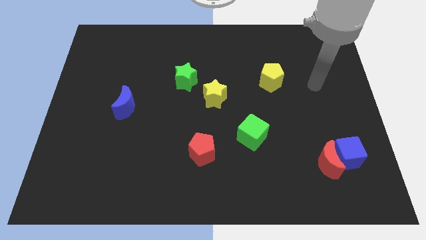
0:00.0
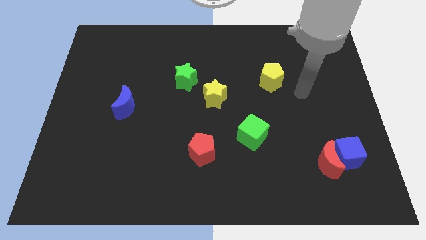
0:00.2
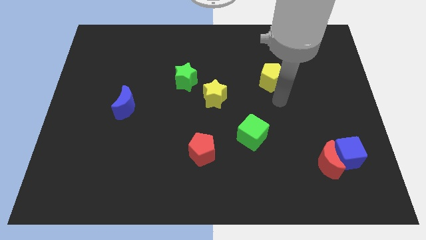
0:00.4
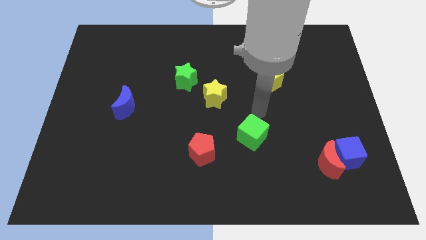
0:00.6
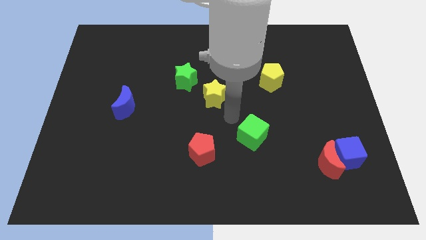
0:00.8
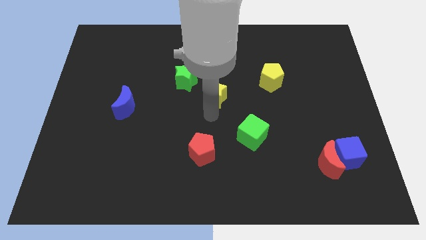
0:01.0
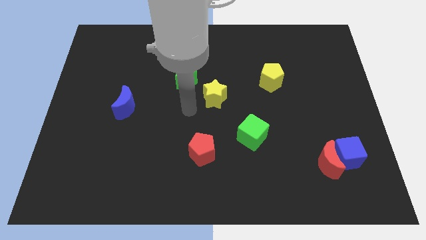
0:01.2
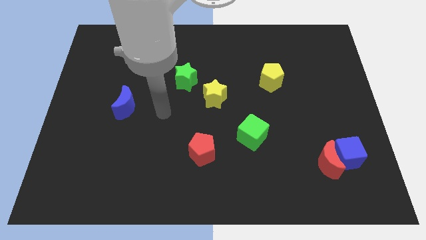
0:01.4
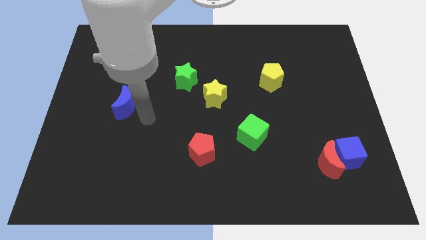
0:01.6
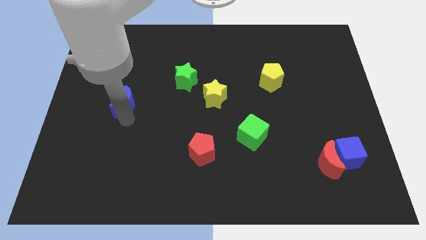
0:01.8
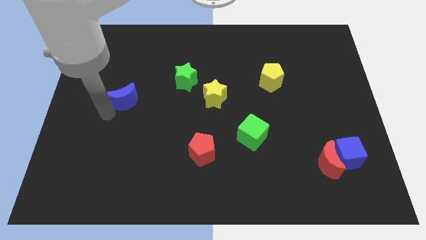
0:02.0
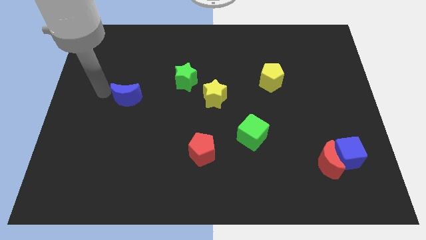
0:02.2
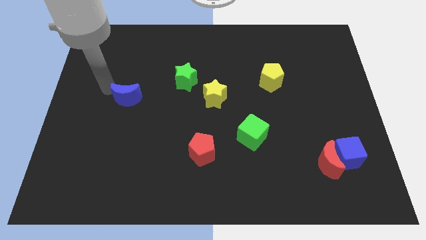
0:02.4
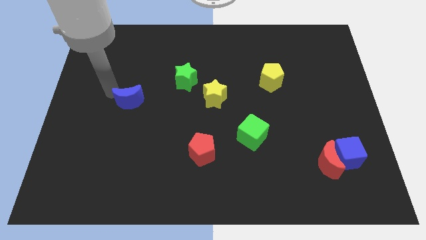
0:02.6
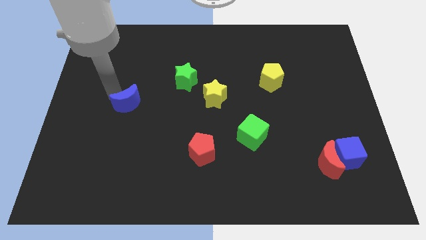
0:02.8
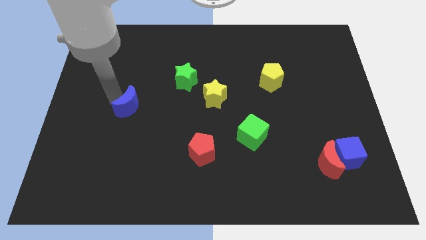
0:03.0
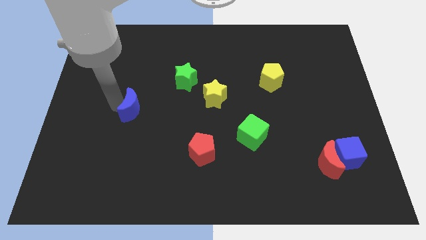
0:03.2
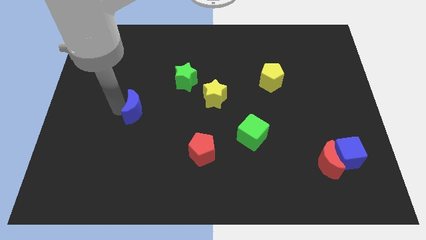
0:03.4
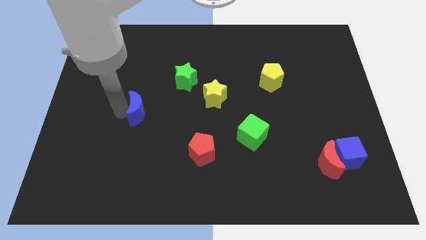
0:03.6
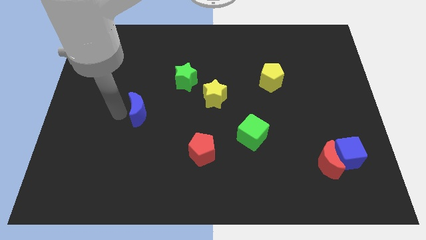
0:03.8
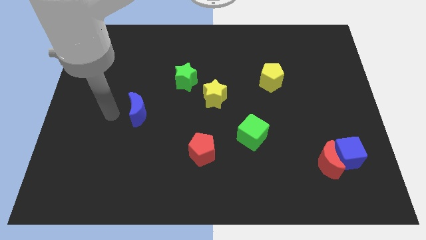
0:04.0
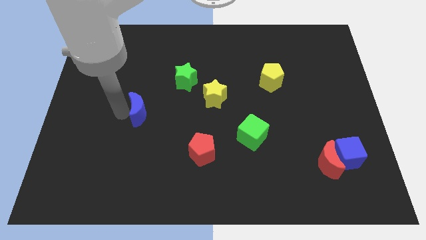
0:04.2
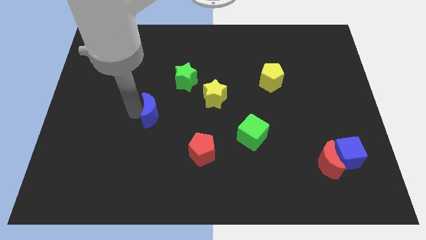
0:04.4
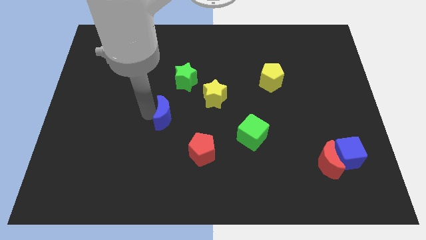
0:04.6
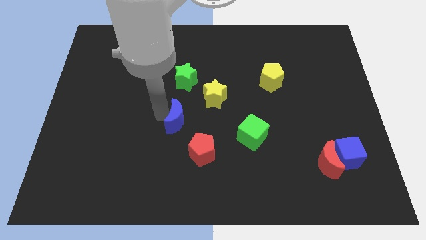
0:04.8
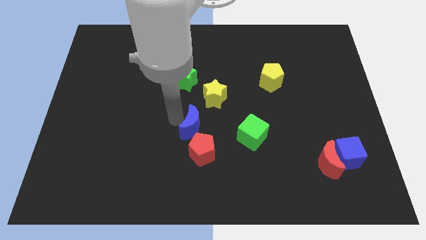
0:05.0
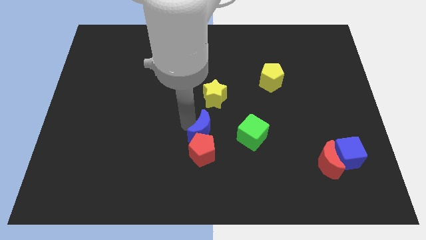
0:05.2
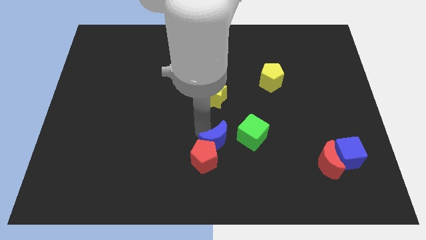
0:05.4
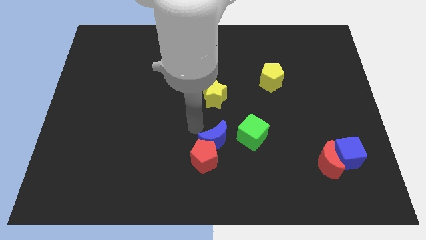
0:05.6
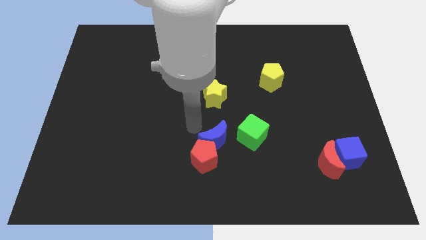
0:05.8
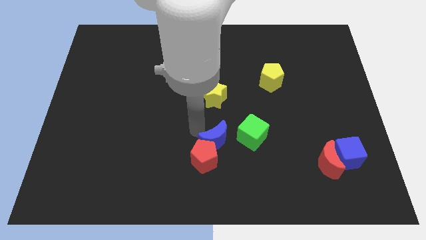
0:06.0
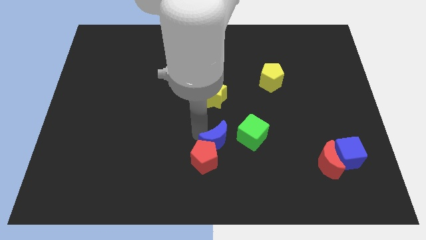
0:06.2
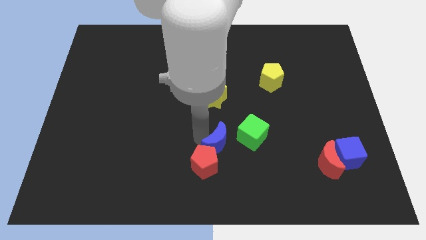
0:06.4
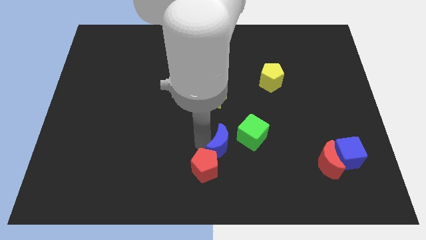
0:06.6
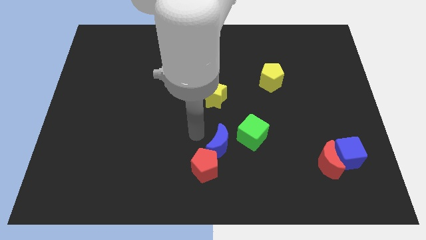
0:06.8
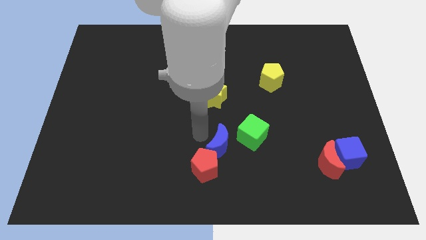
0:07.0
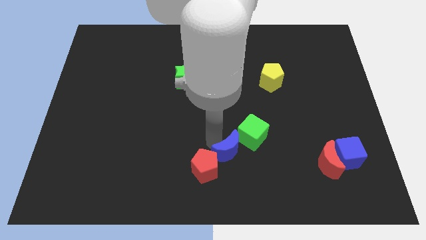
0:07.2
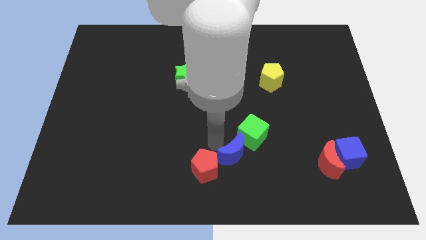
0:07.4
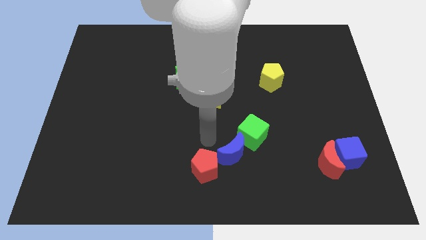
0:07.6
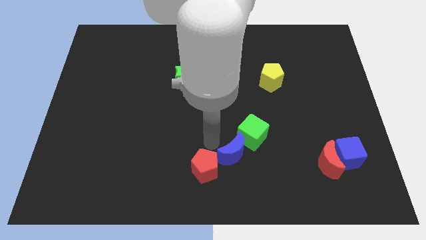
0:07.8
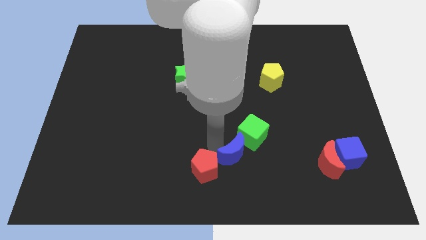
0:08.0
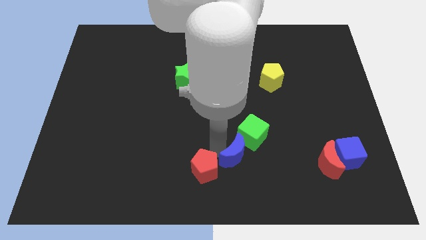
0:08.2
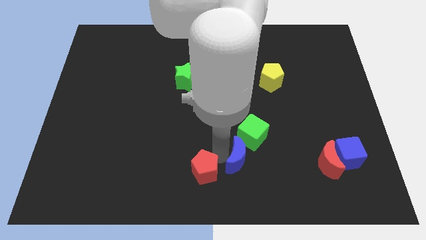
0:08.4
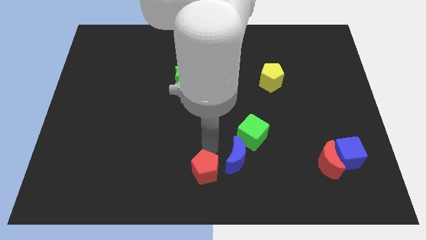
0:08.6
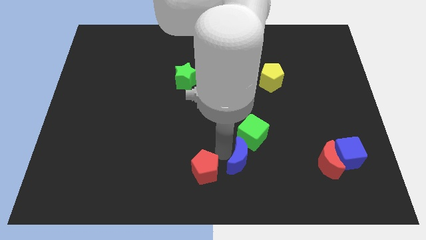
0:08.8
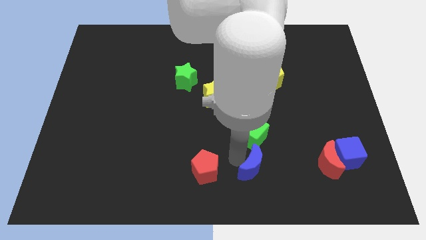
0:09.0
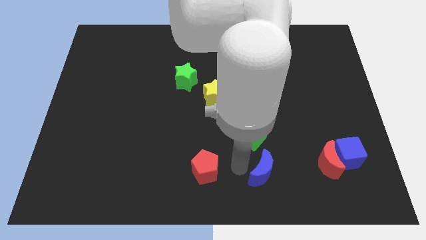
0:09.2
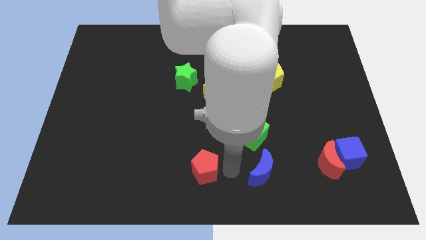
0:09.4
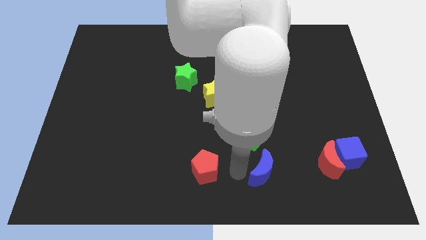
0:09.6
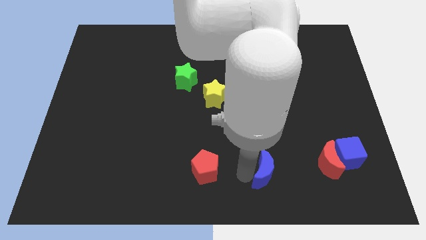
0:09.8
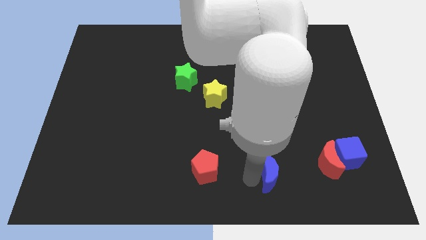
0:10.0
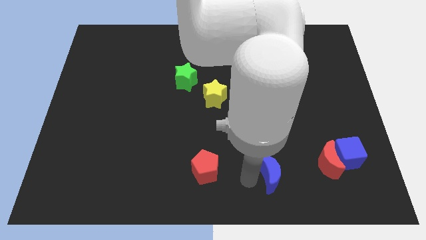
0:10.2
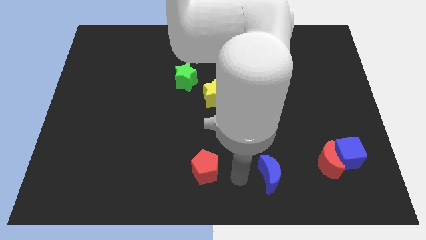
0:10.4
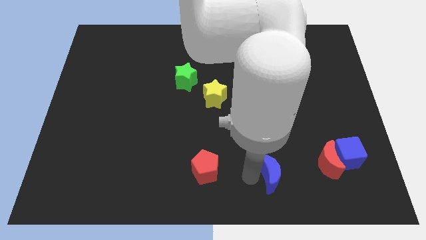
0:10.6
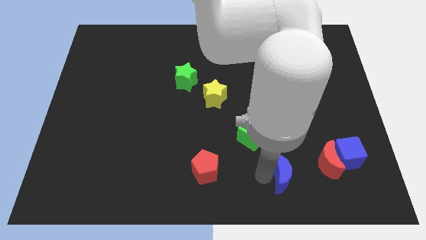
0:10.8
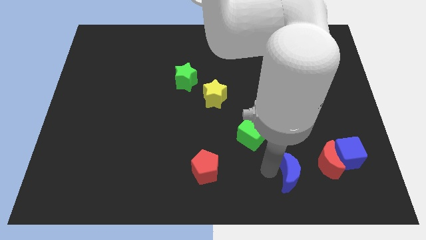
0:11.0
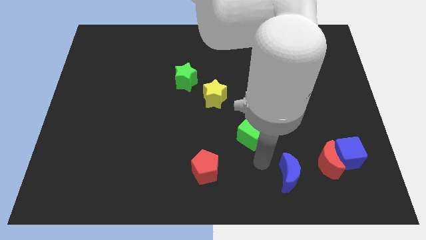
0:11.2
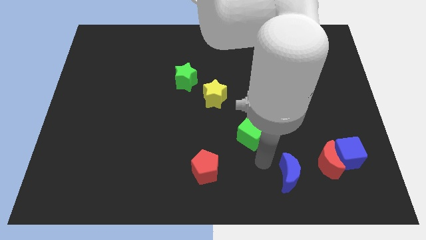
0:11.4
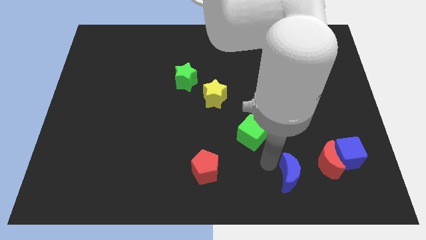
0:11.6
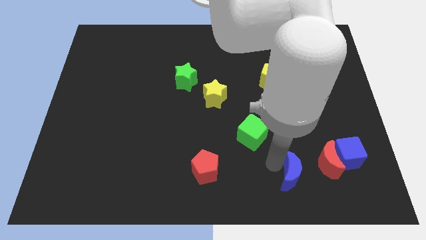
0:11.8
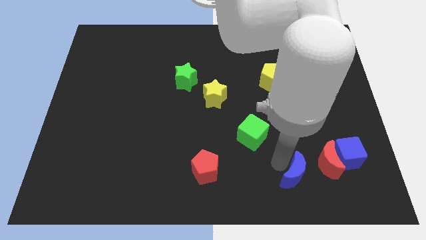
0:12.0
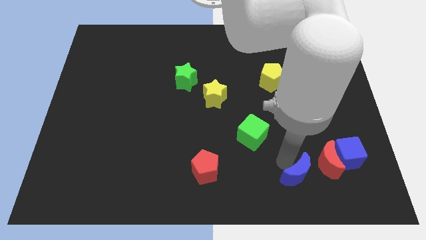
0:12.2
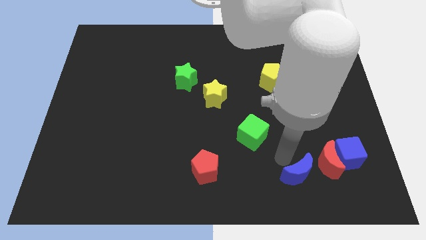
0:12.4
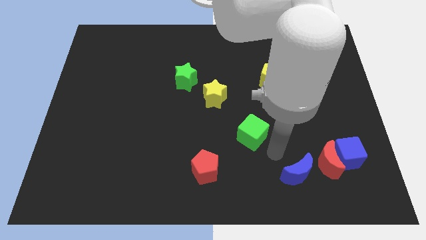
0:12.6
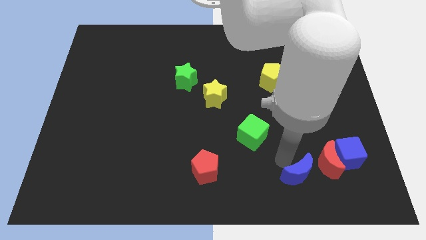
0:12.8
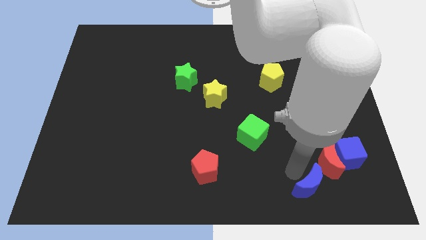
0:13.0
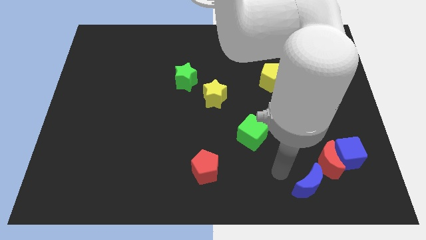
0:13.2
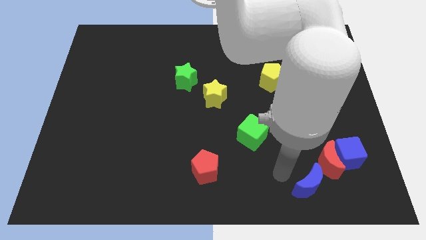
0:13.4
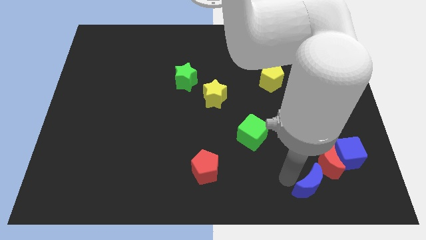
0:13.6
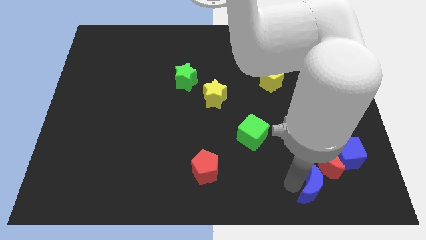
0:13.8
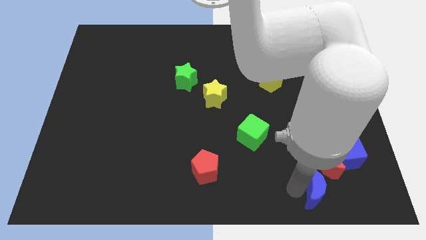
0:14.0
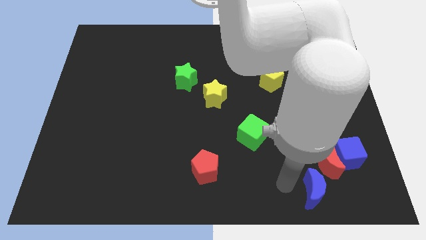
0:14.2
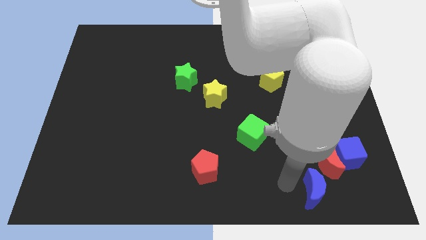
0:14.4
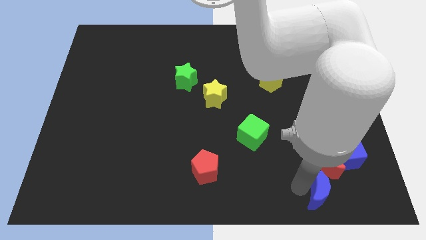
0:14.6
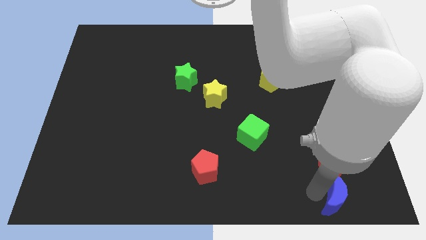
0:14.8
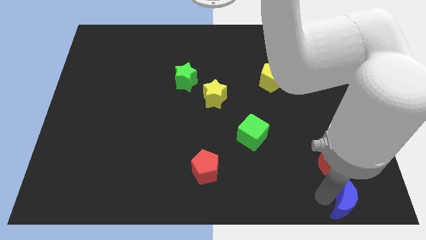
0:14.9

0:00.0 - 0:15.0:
push the blue moon to the bottom right of the board
